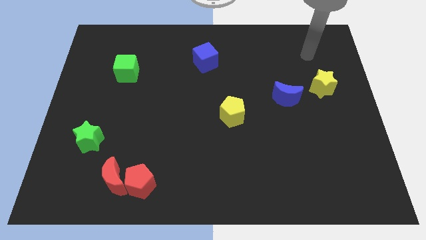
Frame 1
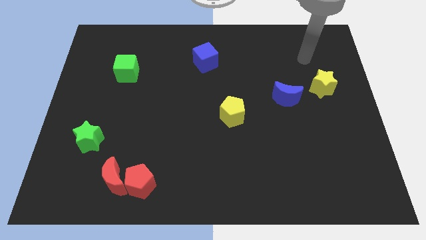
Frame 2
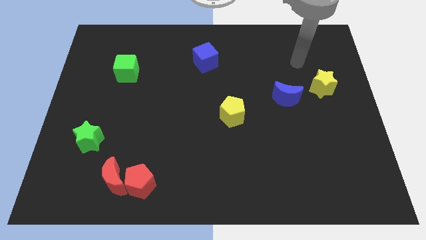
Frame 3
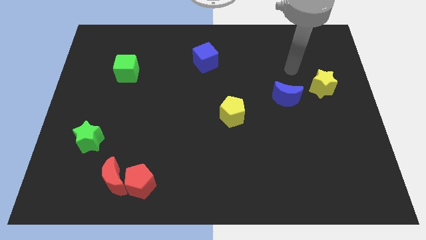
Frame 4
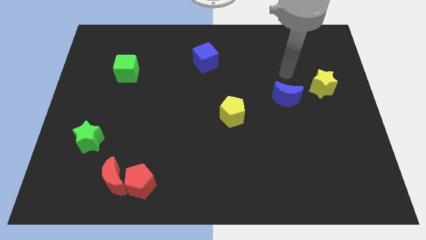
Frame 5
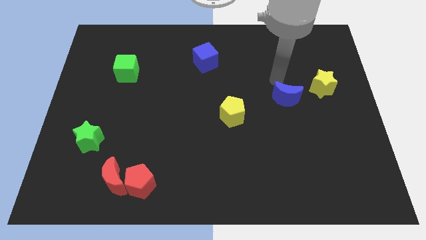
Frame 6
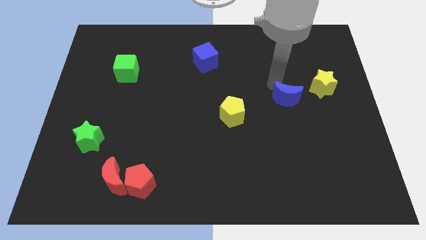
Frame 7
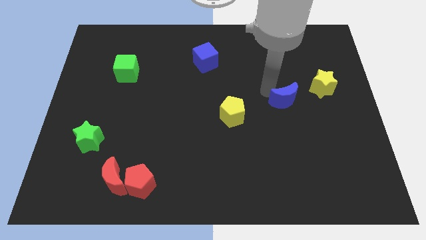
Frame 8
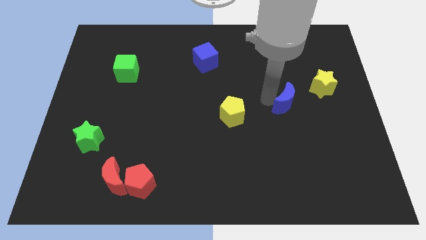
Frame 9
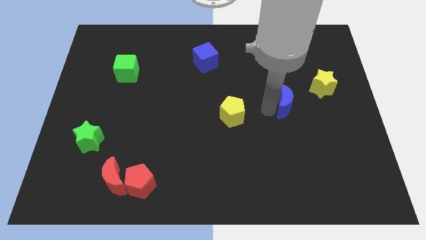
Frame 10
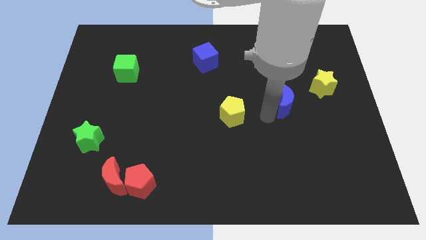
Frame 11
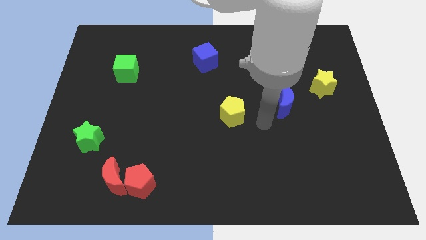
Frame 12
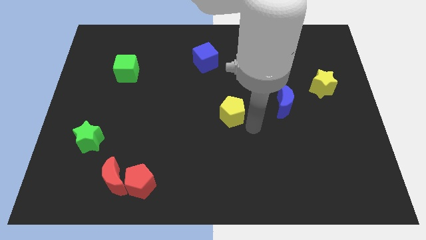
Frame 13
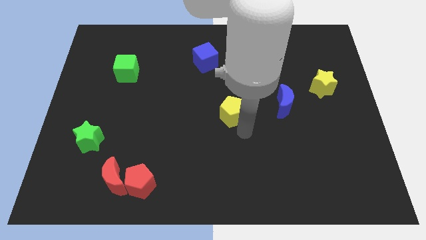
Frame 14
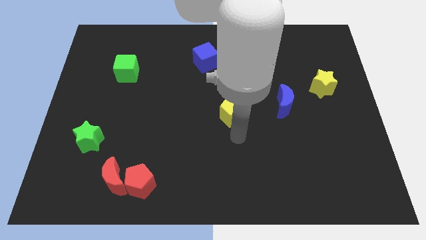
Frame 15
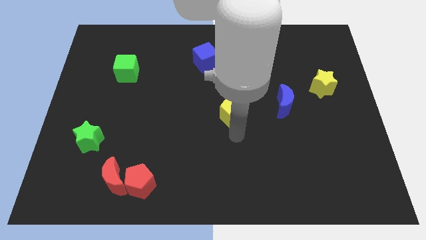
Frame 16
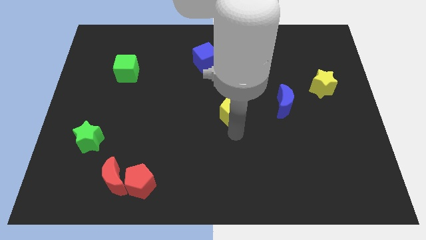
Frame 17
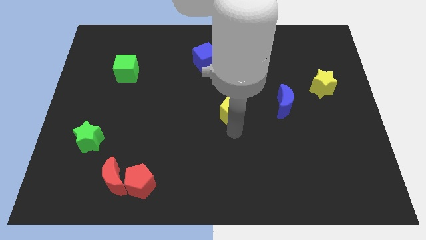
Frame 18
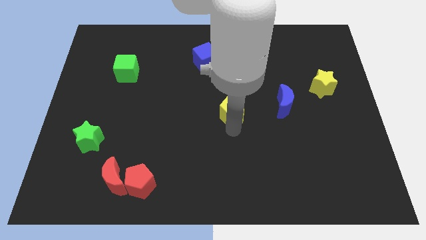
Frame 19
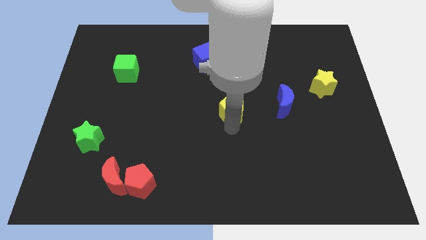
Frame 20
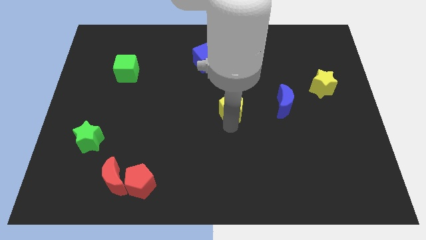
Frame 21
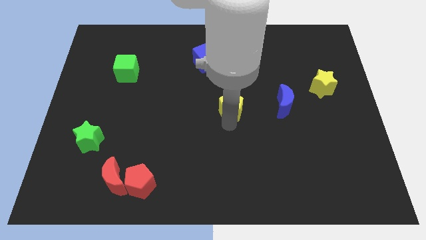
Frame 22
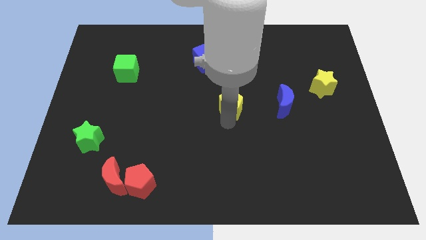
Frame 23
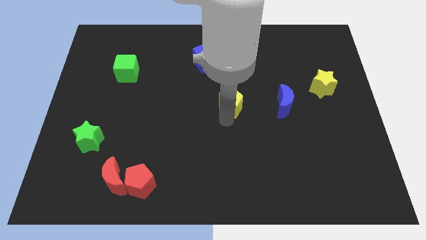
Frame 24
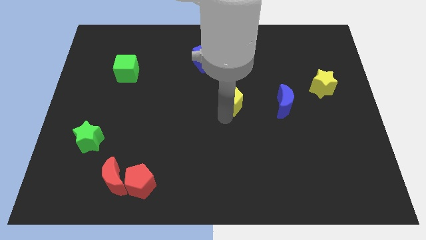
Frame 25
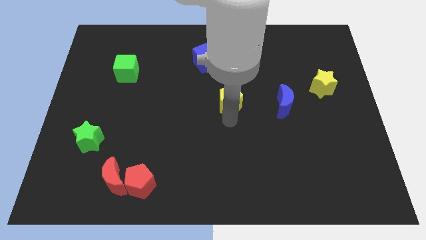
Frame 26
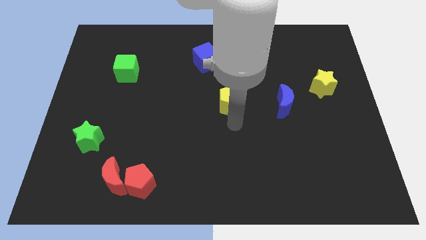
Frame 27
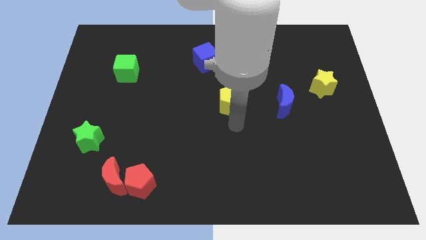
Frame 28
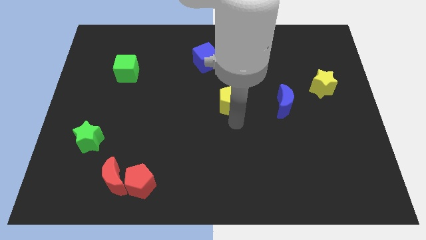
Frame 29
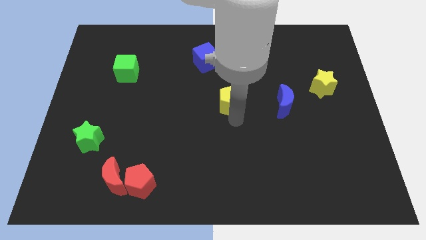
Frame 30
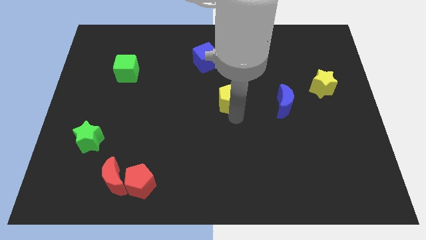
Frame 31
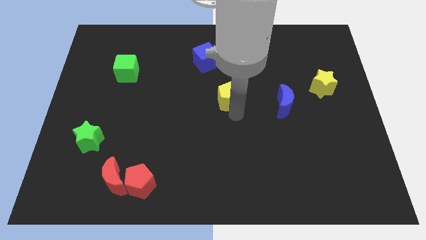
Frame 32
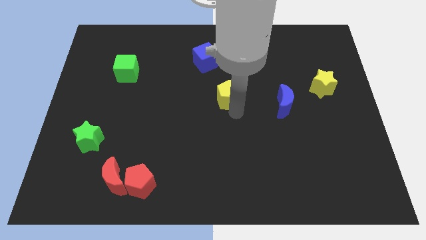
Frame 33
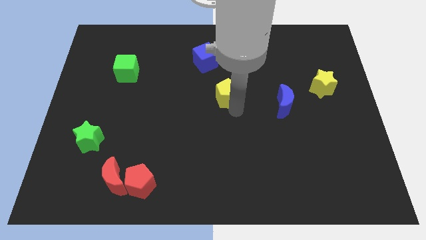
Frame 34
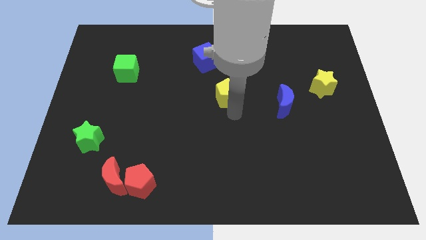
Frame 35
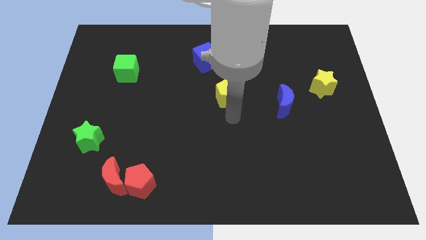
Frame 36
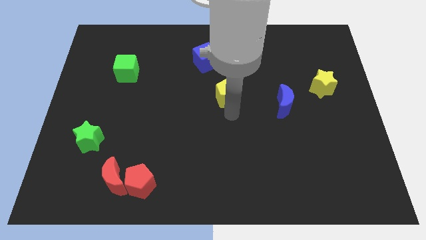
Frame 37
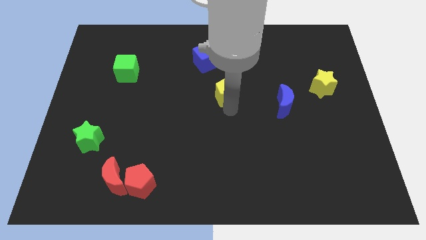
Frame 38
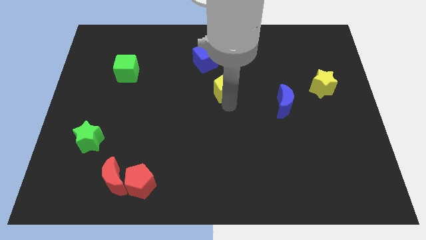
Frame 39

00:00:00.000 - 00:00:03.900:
move the yellow pentagon a little bit up

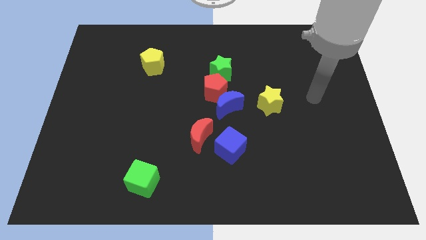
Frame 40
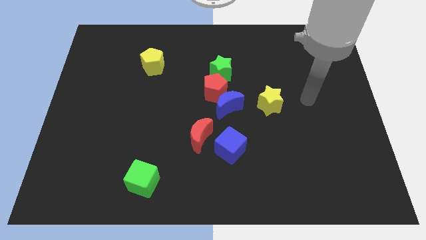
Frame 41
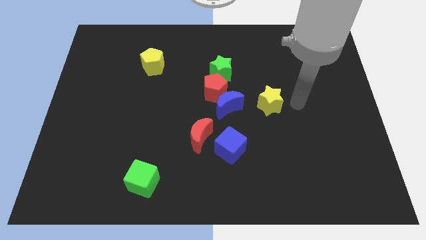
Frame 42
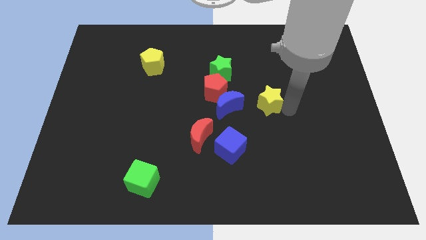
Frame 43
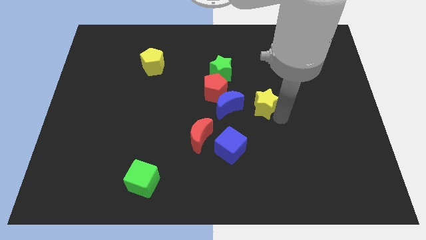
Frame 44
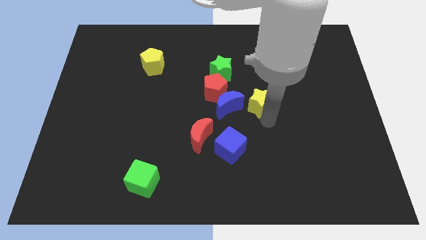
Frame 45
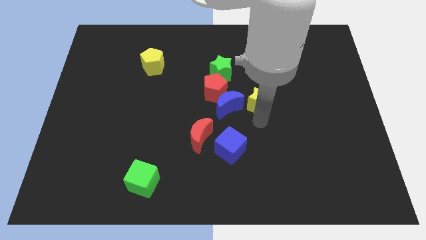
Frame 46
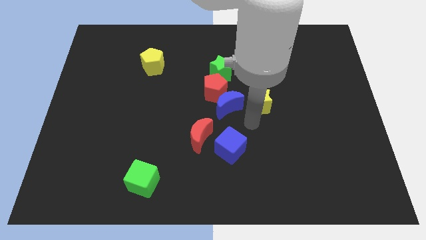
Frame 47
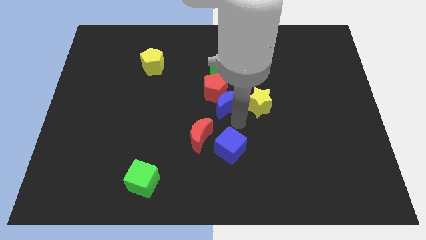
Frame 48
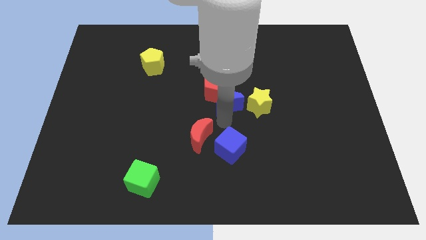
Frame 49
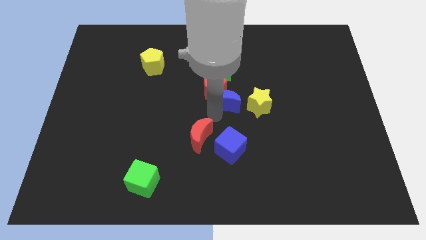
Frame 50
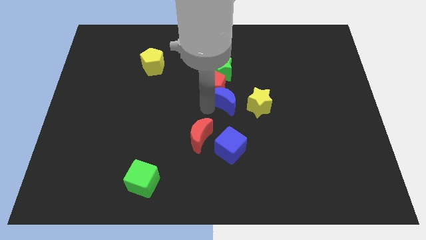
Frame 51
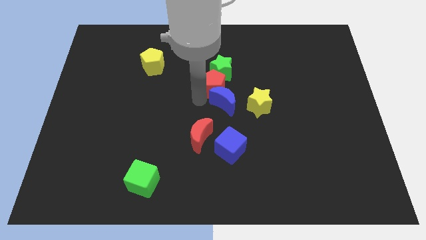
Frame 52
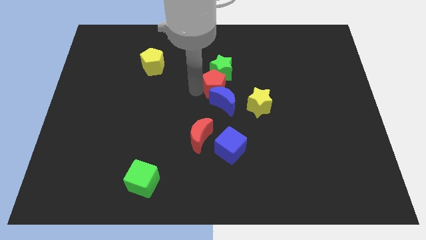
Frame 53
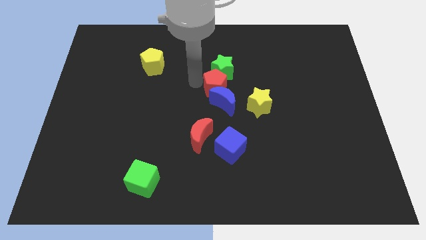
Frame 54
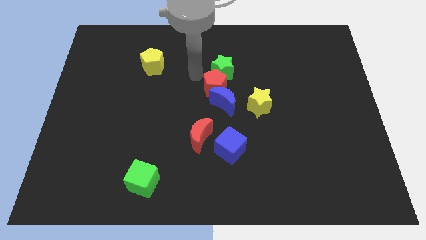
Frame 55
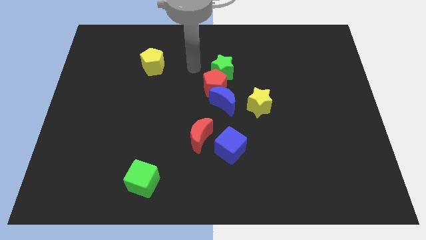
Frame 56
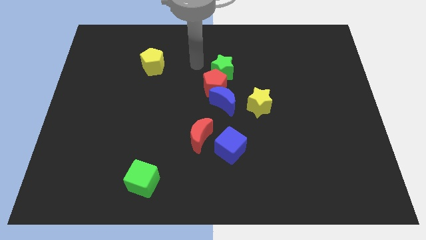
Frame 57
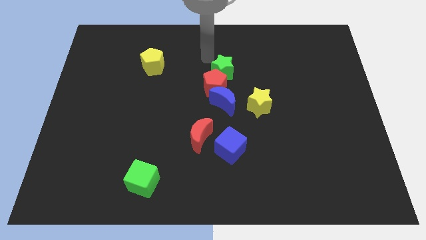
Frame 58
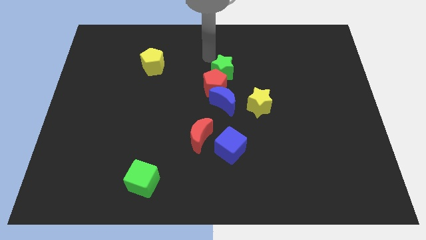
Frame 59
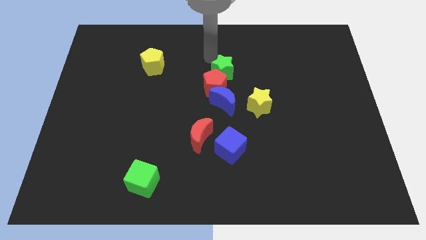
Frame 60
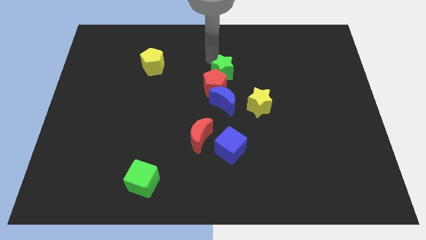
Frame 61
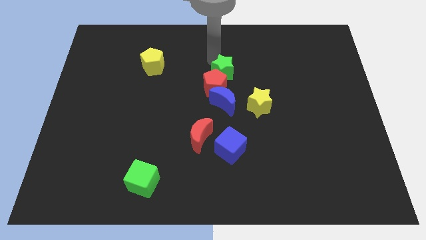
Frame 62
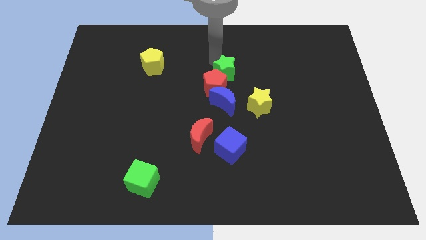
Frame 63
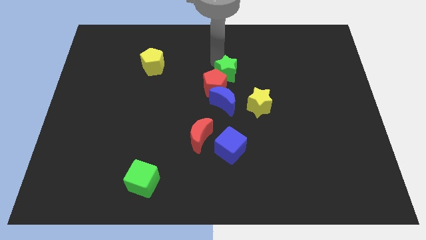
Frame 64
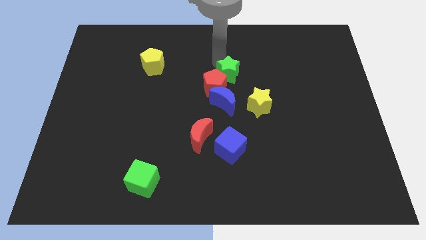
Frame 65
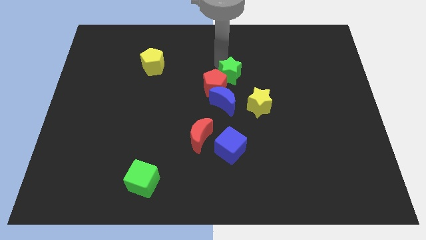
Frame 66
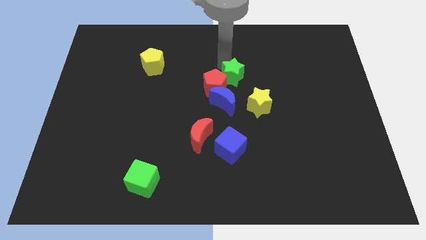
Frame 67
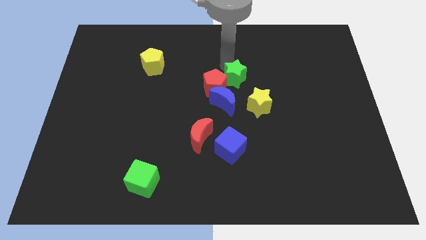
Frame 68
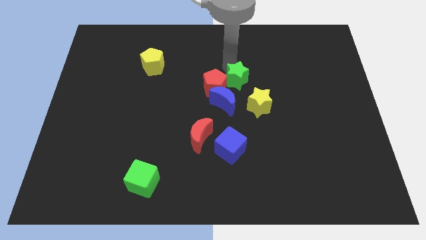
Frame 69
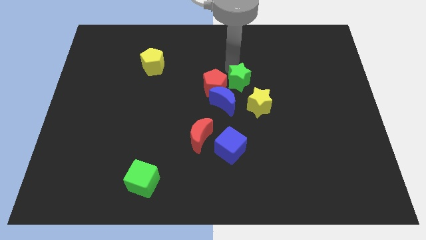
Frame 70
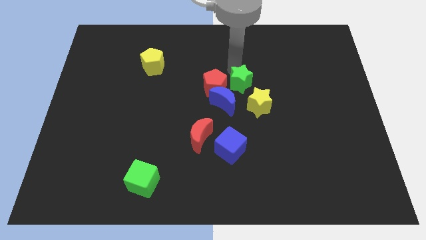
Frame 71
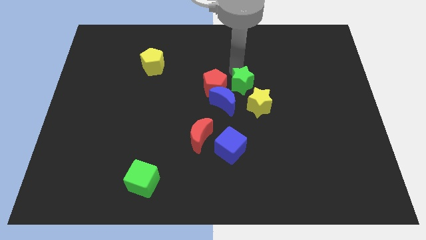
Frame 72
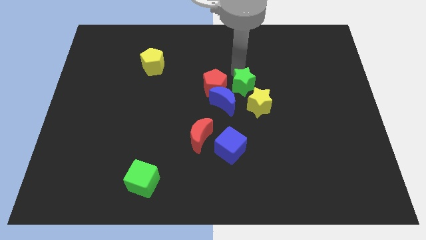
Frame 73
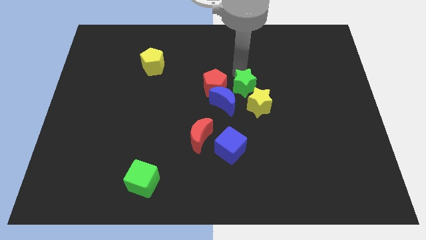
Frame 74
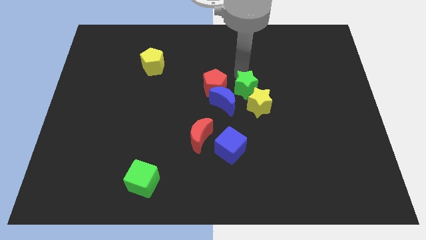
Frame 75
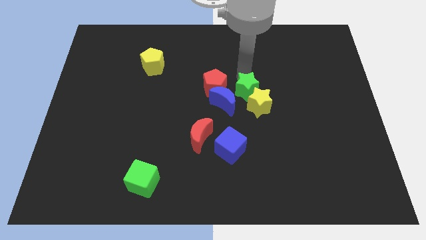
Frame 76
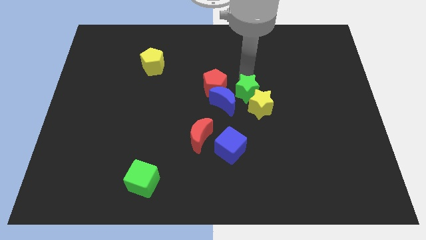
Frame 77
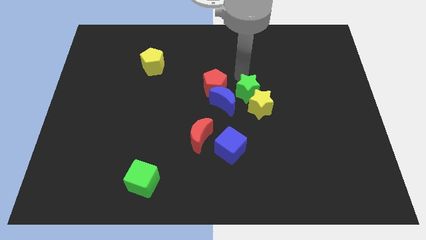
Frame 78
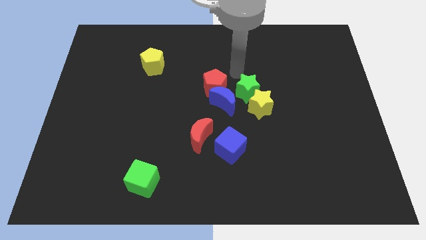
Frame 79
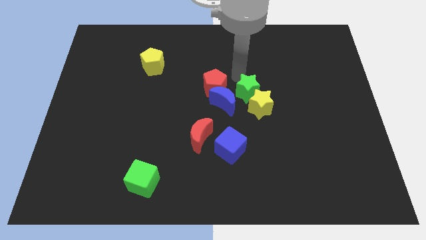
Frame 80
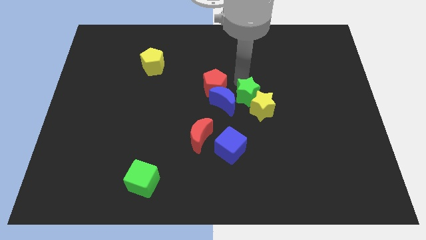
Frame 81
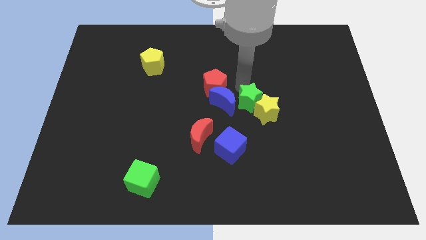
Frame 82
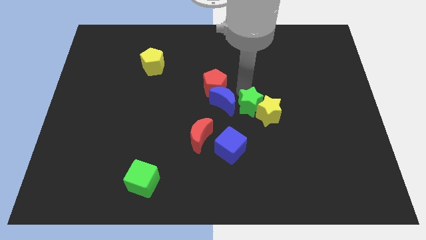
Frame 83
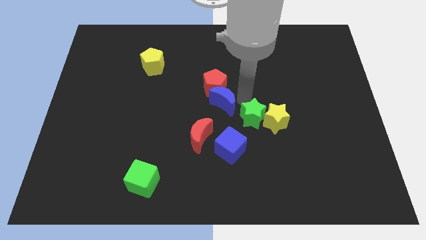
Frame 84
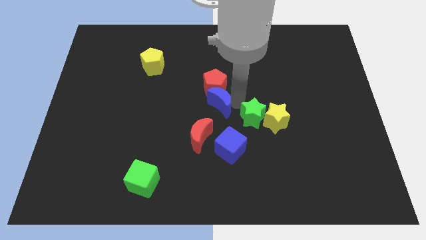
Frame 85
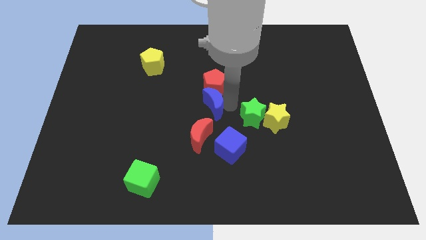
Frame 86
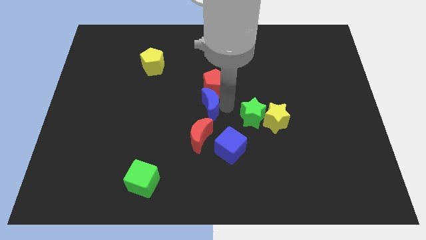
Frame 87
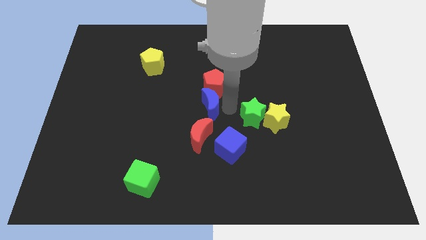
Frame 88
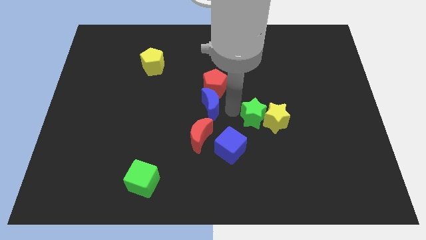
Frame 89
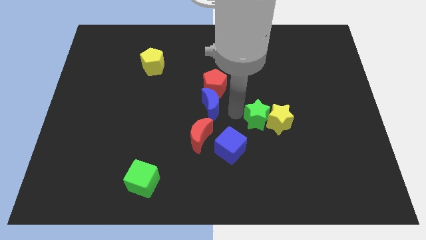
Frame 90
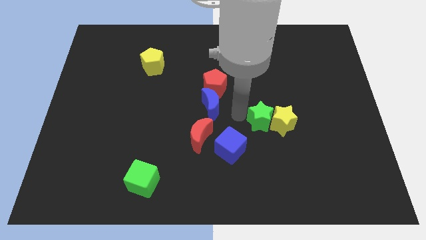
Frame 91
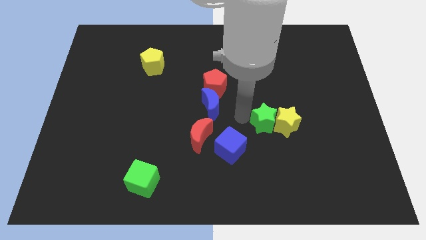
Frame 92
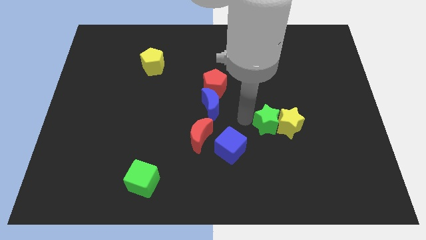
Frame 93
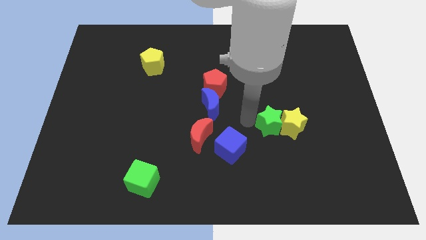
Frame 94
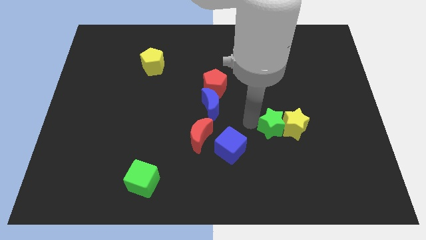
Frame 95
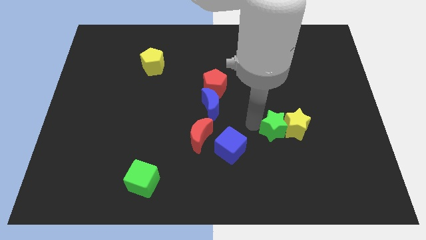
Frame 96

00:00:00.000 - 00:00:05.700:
slide the green star downwards and to the right
